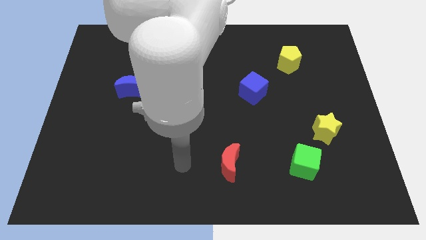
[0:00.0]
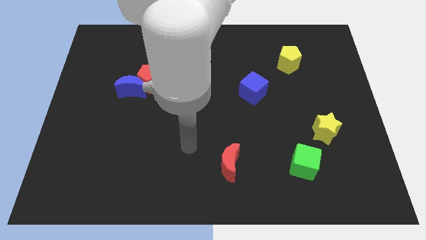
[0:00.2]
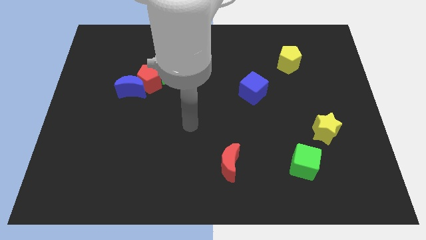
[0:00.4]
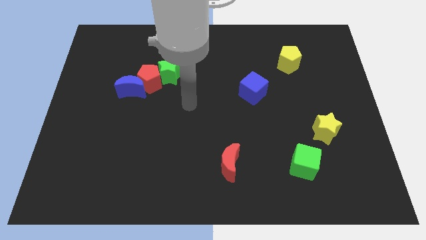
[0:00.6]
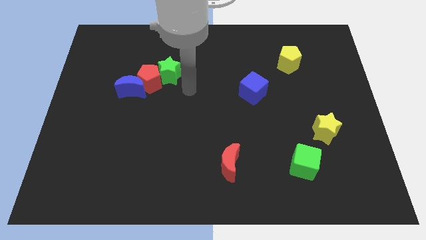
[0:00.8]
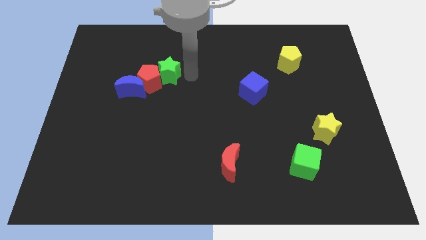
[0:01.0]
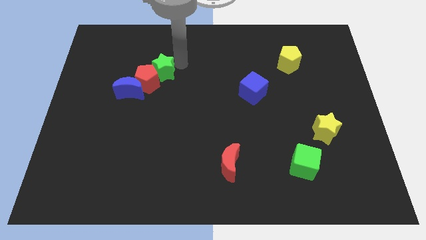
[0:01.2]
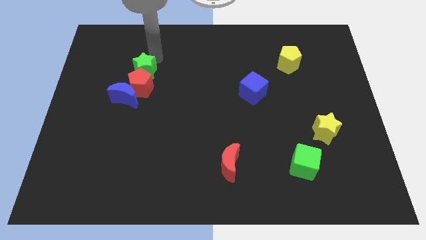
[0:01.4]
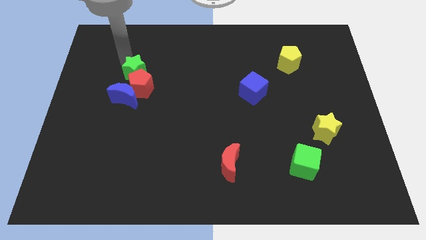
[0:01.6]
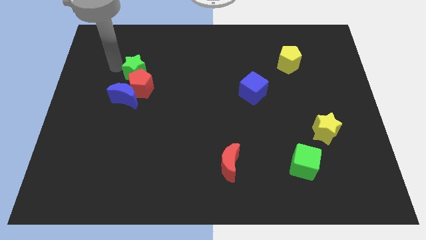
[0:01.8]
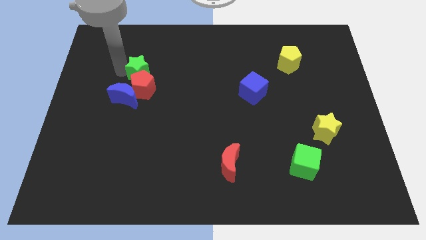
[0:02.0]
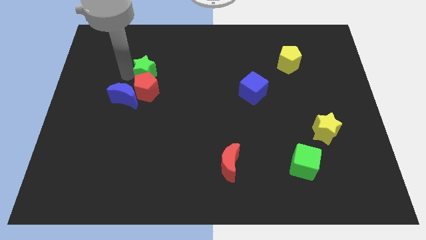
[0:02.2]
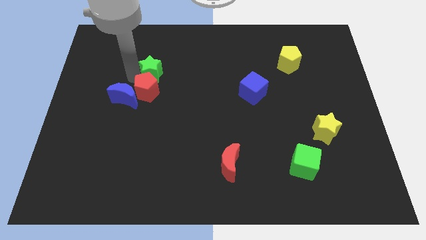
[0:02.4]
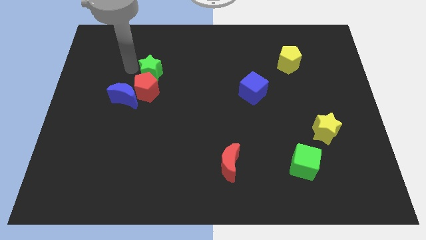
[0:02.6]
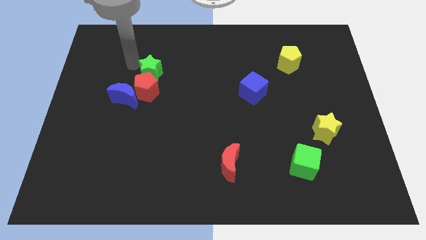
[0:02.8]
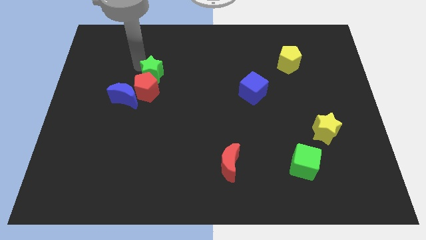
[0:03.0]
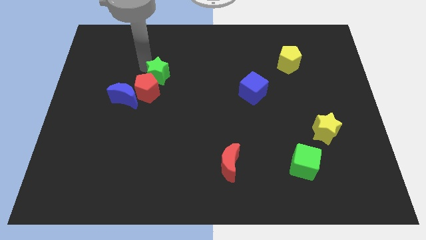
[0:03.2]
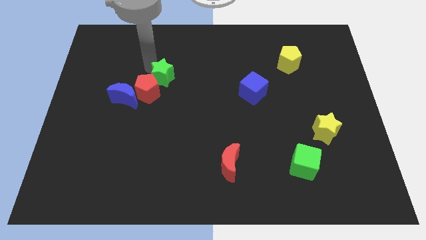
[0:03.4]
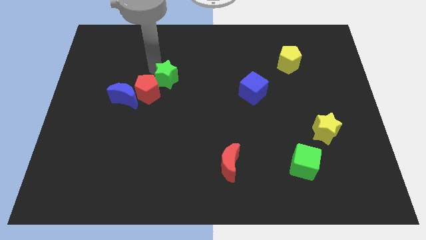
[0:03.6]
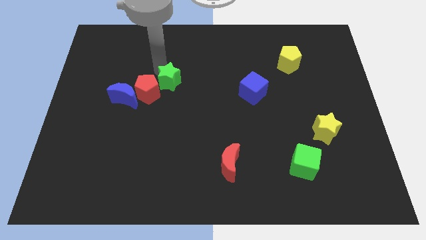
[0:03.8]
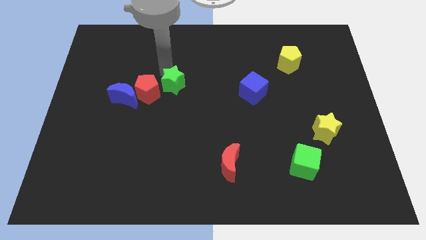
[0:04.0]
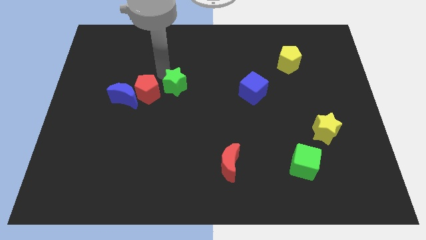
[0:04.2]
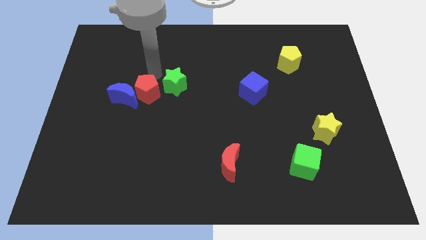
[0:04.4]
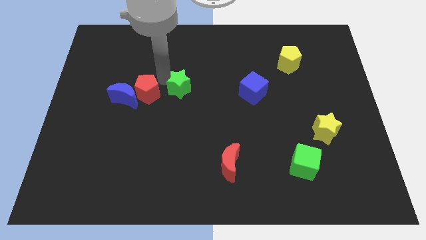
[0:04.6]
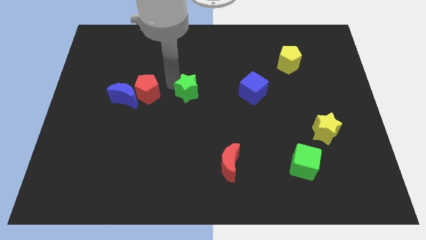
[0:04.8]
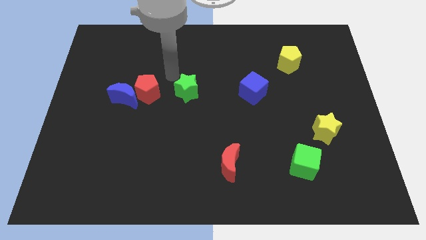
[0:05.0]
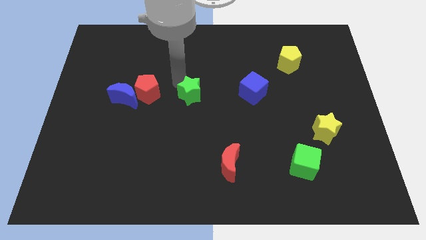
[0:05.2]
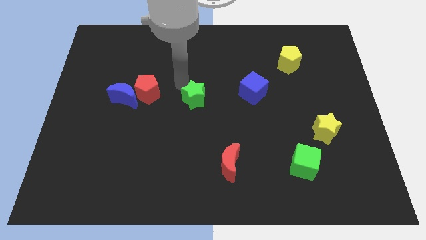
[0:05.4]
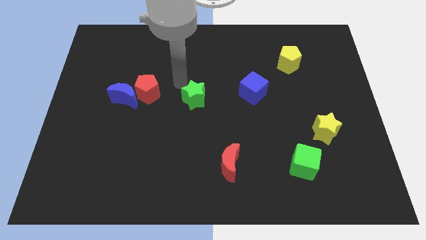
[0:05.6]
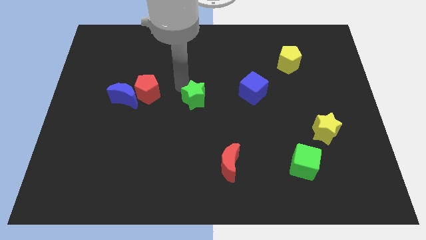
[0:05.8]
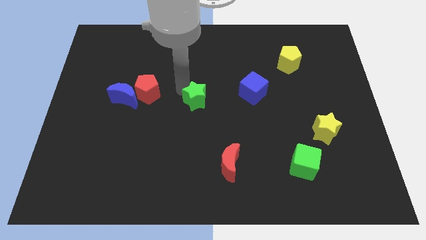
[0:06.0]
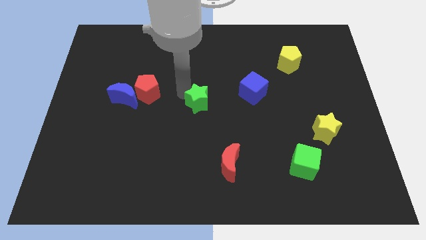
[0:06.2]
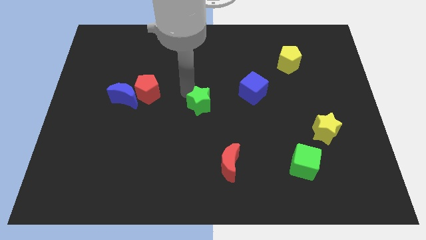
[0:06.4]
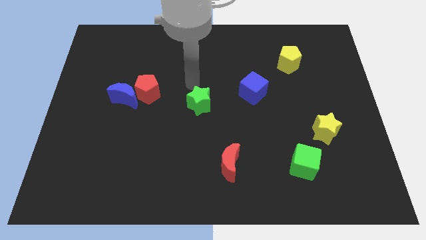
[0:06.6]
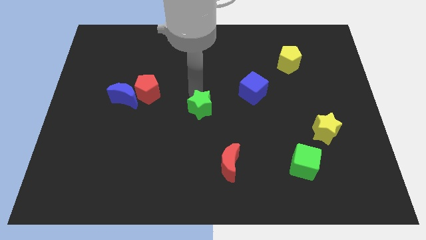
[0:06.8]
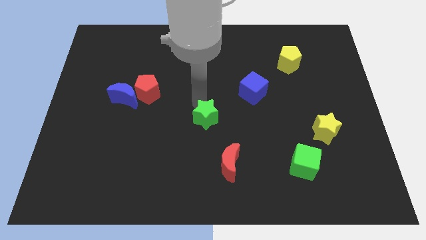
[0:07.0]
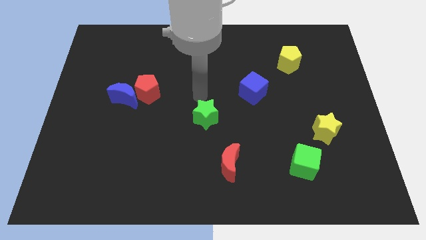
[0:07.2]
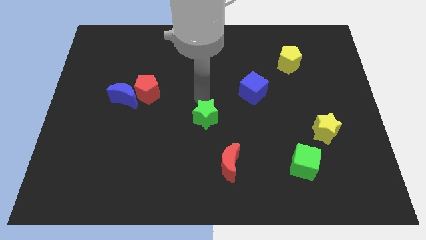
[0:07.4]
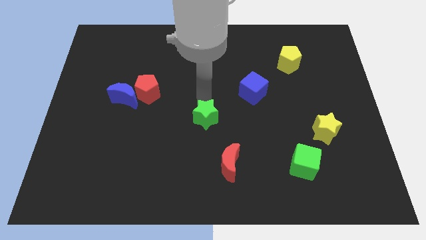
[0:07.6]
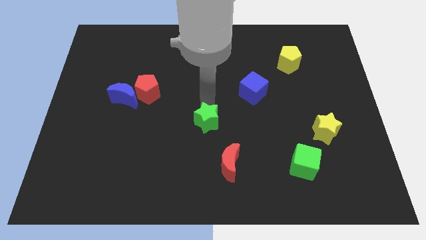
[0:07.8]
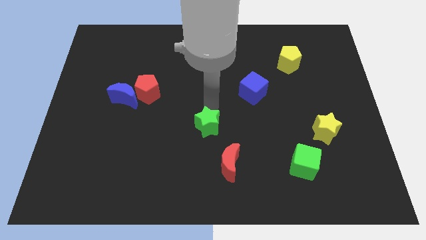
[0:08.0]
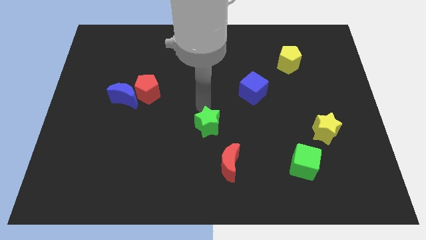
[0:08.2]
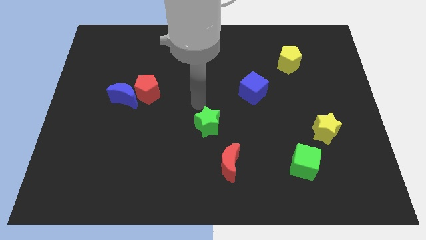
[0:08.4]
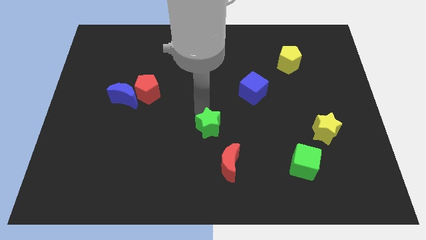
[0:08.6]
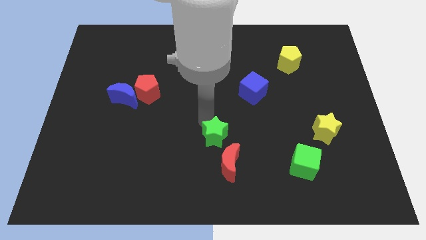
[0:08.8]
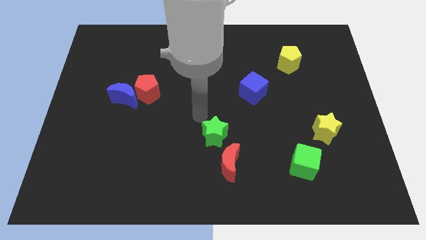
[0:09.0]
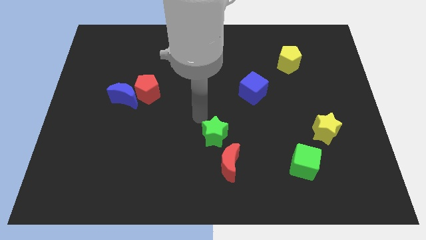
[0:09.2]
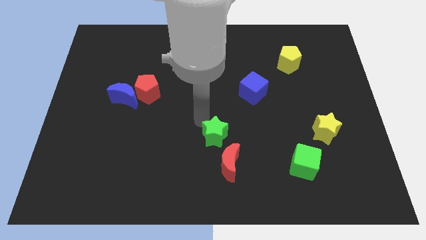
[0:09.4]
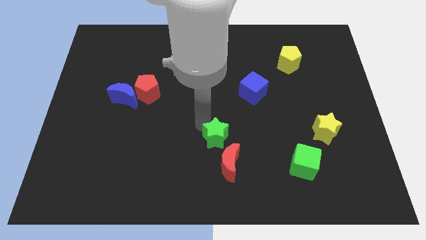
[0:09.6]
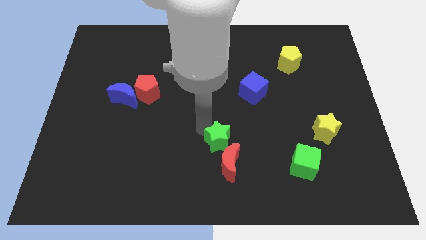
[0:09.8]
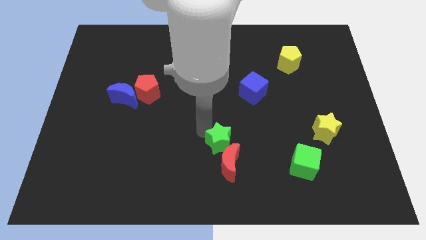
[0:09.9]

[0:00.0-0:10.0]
move the green star next to the red moon

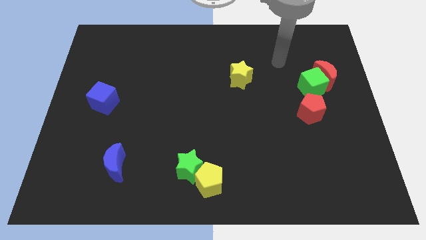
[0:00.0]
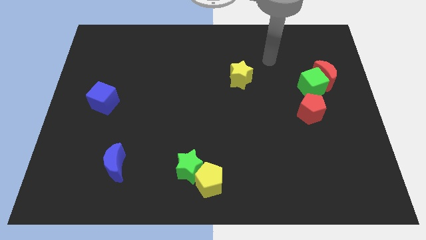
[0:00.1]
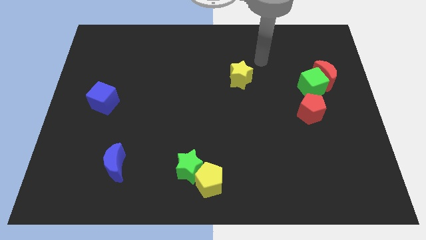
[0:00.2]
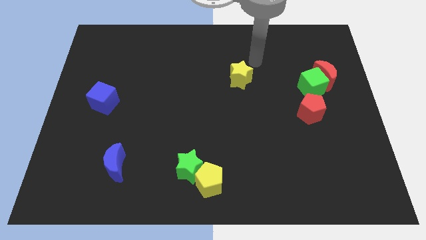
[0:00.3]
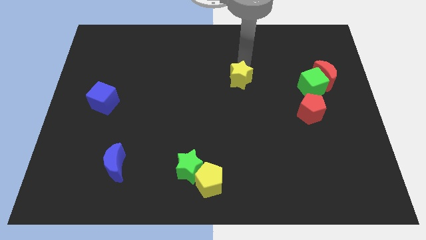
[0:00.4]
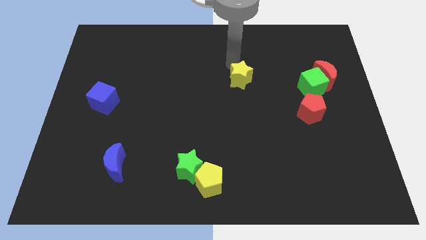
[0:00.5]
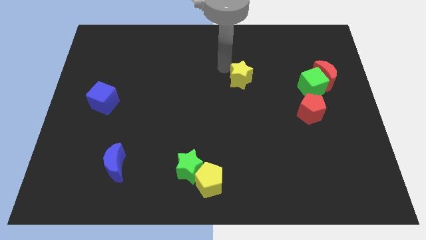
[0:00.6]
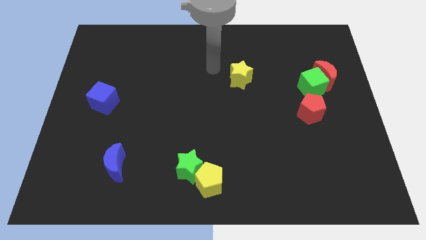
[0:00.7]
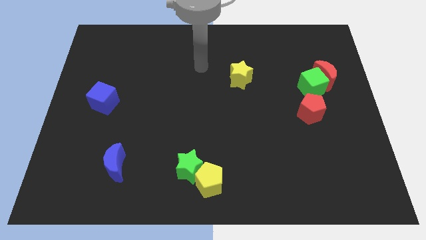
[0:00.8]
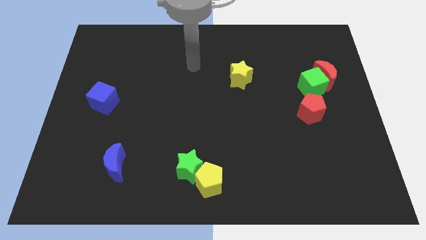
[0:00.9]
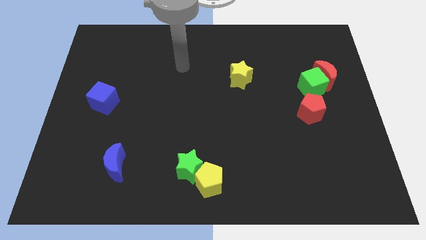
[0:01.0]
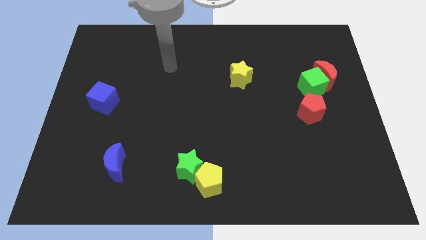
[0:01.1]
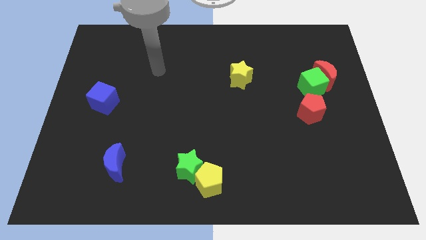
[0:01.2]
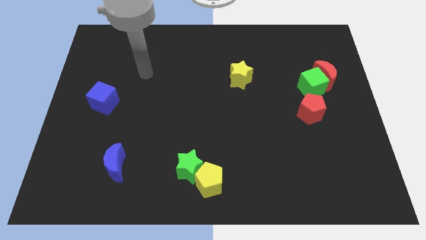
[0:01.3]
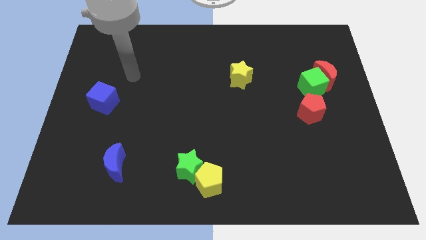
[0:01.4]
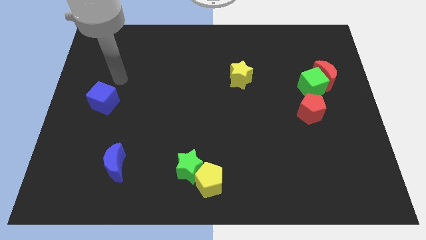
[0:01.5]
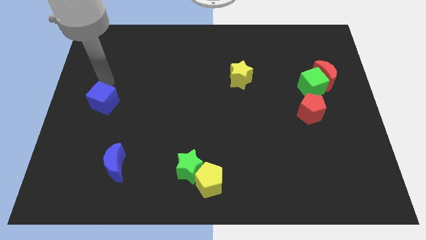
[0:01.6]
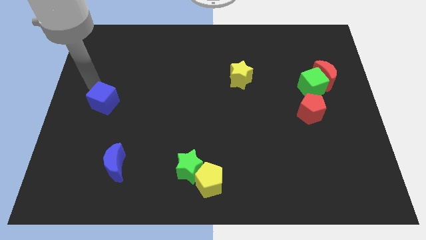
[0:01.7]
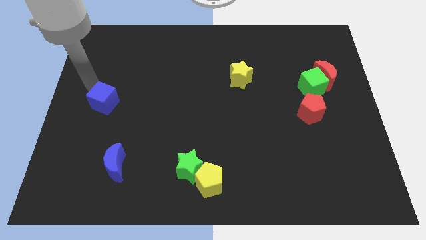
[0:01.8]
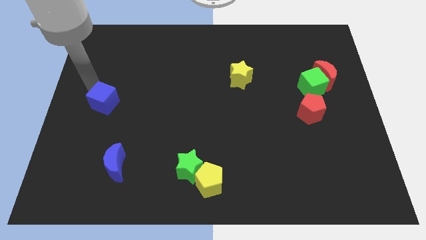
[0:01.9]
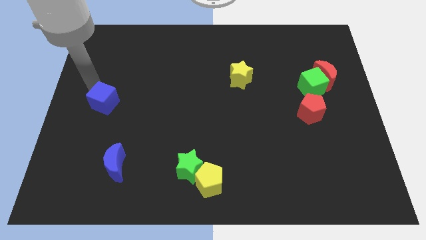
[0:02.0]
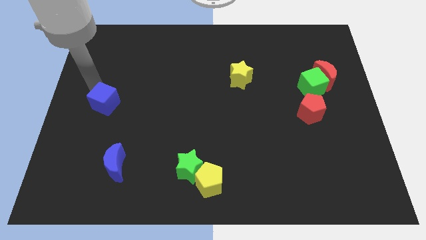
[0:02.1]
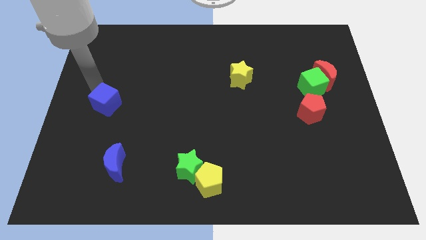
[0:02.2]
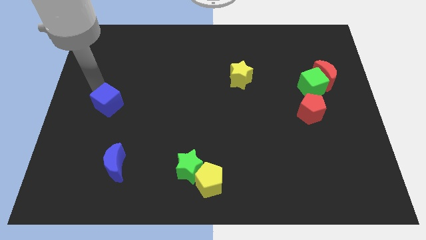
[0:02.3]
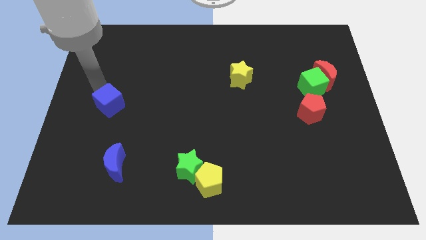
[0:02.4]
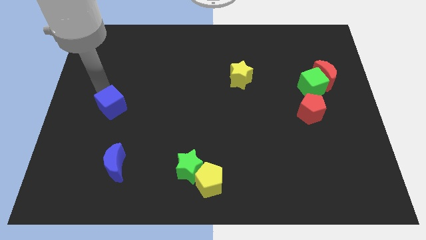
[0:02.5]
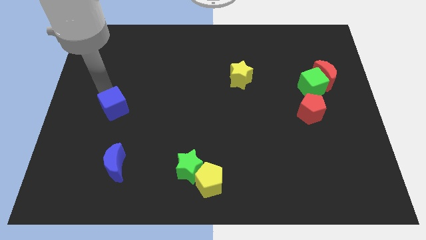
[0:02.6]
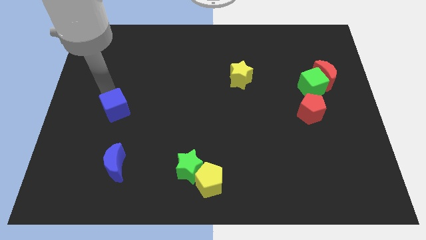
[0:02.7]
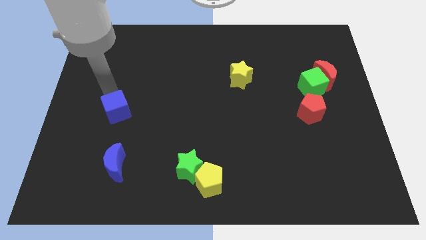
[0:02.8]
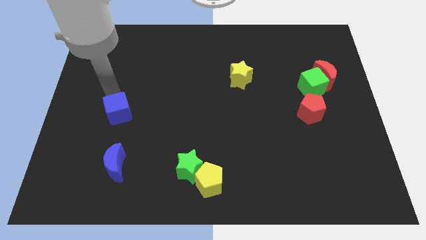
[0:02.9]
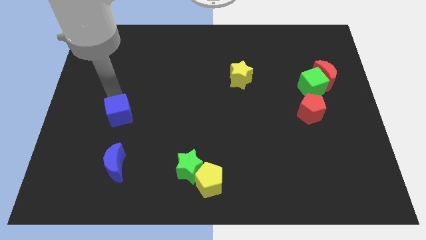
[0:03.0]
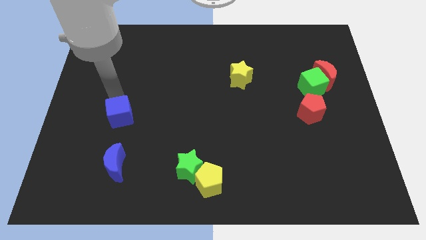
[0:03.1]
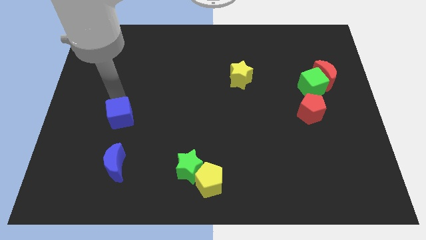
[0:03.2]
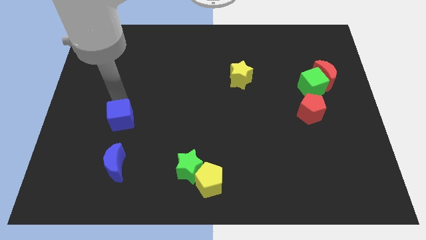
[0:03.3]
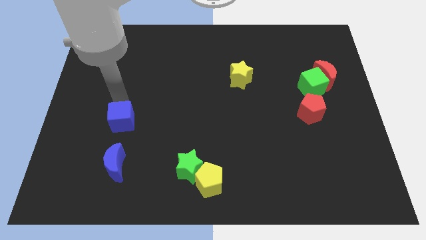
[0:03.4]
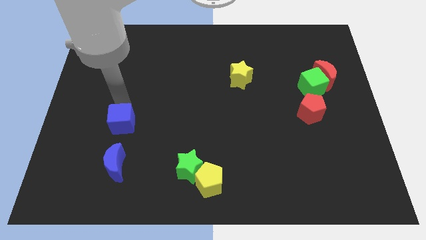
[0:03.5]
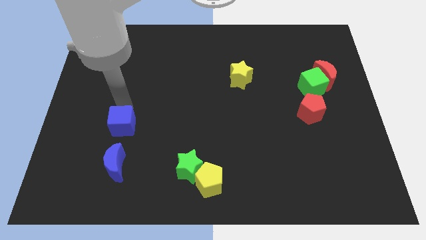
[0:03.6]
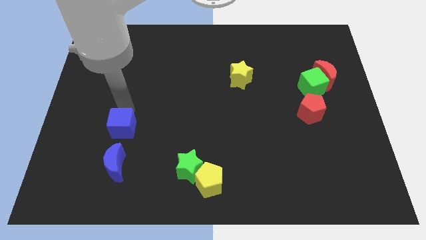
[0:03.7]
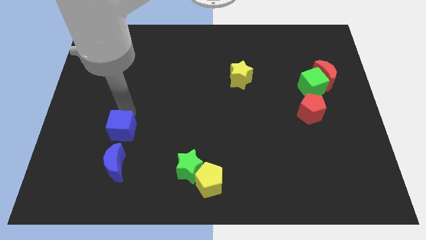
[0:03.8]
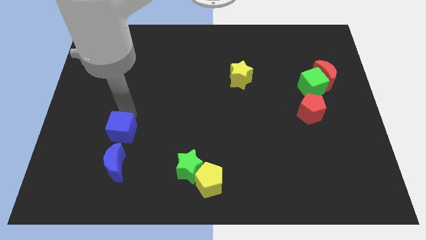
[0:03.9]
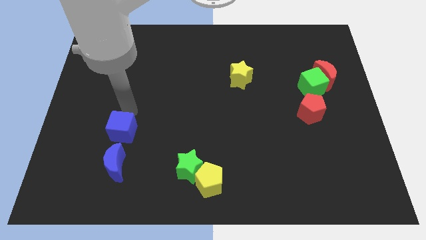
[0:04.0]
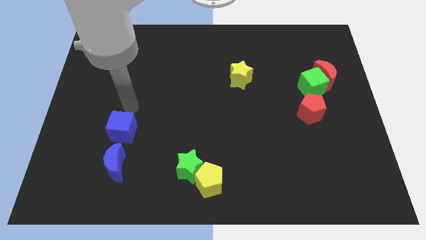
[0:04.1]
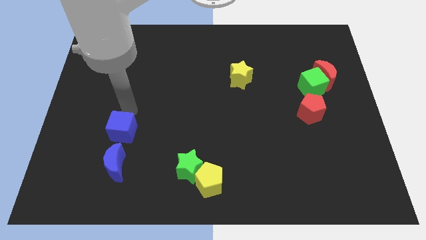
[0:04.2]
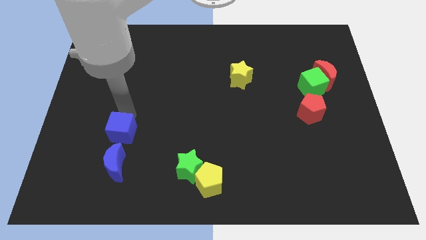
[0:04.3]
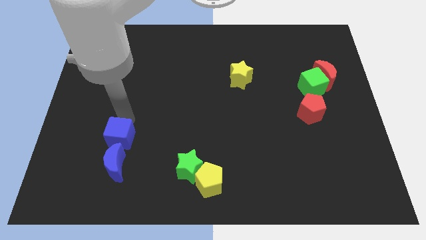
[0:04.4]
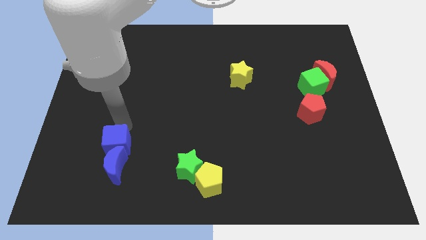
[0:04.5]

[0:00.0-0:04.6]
put the blue cube close to the blue moon
